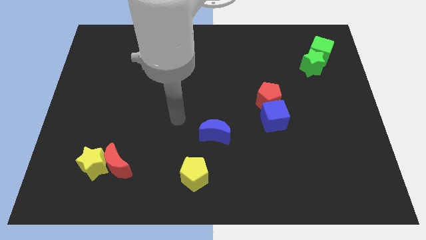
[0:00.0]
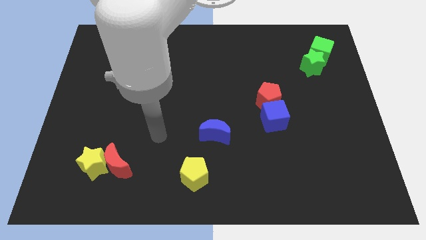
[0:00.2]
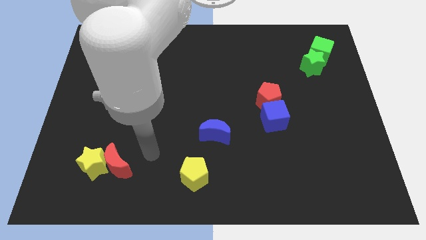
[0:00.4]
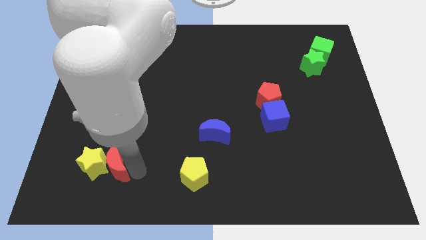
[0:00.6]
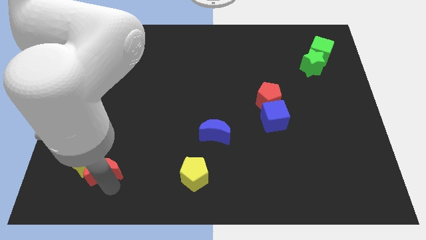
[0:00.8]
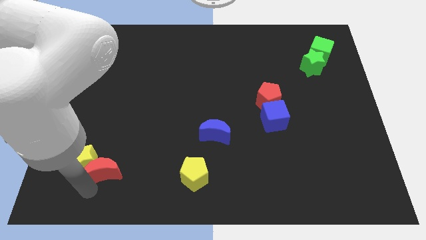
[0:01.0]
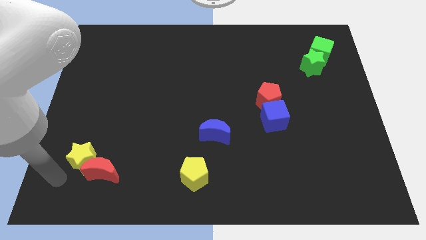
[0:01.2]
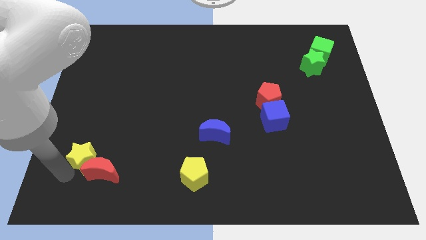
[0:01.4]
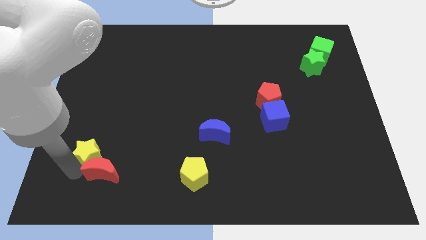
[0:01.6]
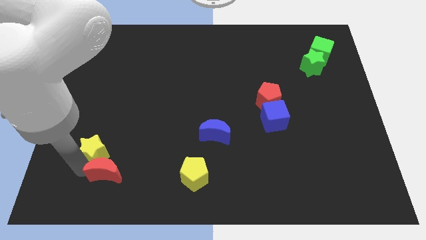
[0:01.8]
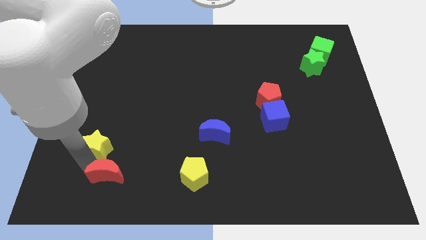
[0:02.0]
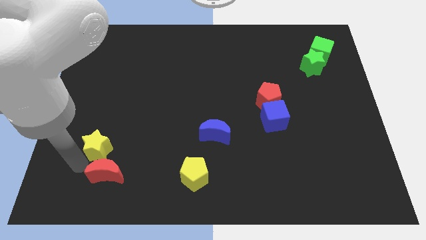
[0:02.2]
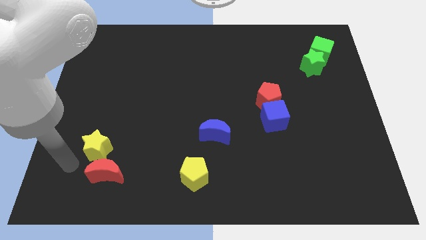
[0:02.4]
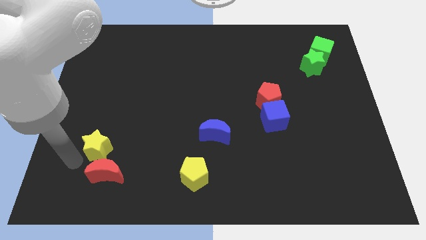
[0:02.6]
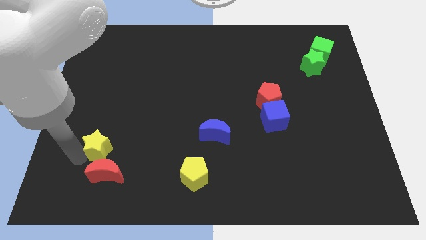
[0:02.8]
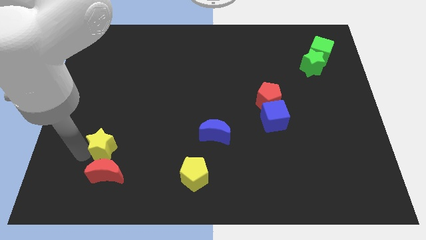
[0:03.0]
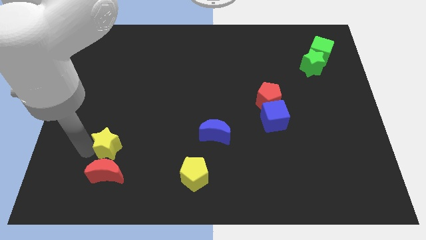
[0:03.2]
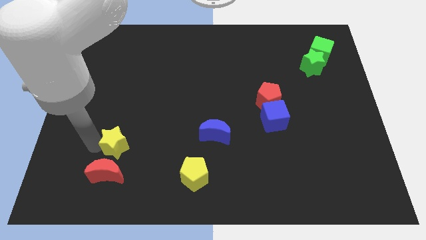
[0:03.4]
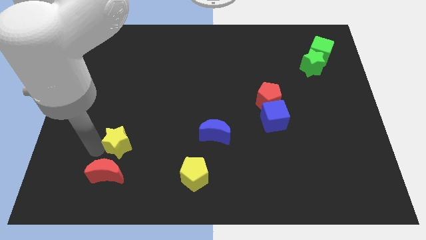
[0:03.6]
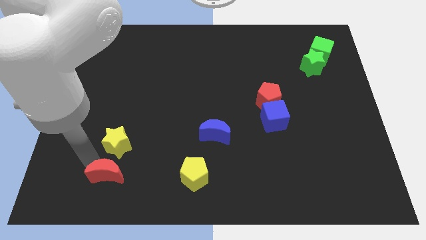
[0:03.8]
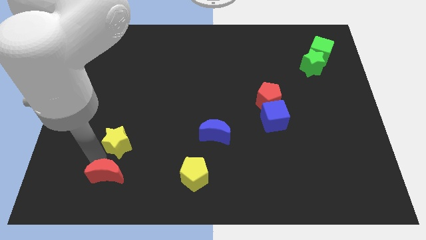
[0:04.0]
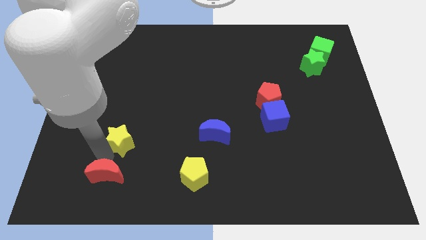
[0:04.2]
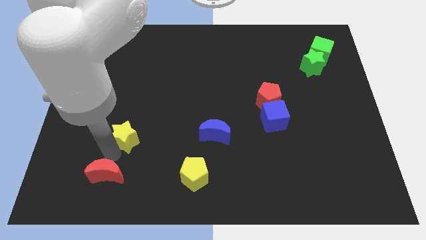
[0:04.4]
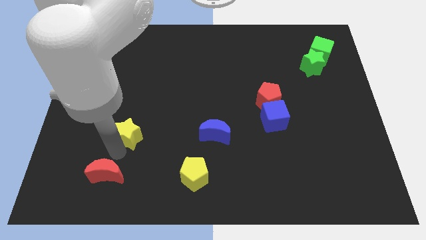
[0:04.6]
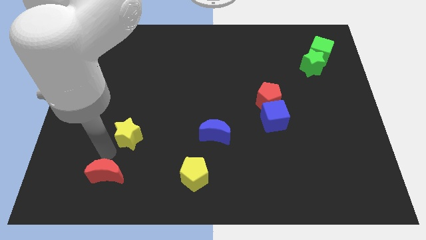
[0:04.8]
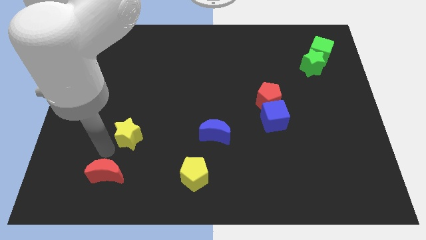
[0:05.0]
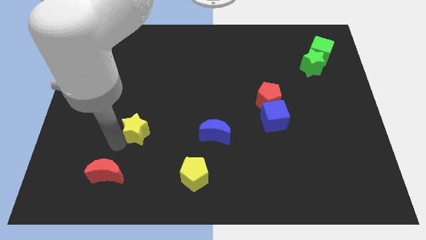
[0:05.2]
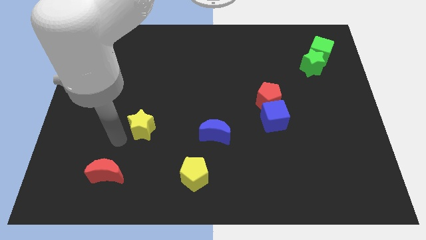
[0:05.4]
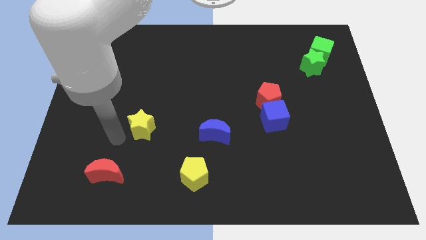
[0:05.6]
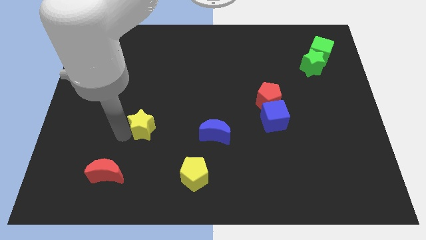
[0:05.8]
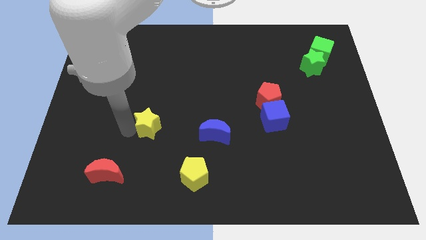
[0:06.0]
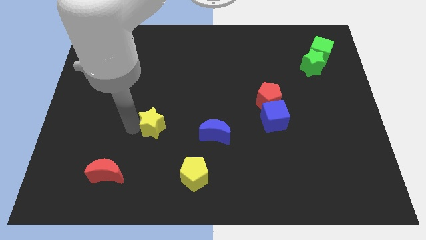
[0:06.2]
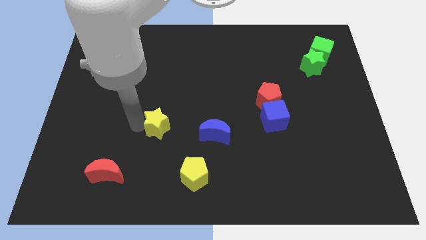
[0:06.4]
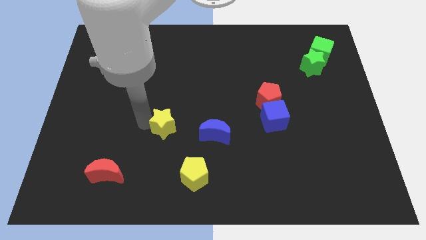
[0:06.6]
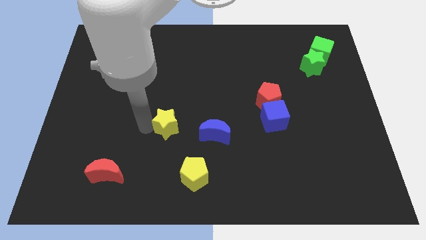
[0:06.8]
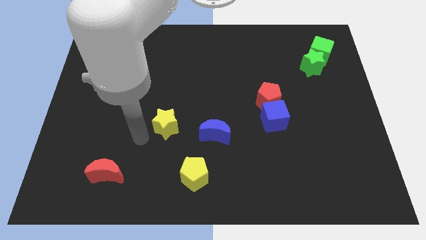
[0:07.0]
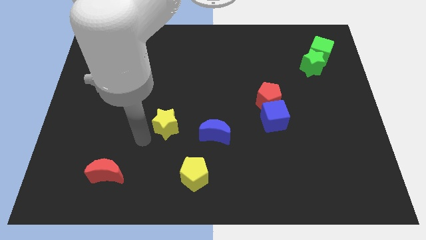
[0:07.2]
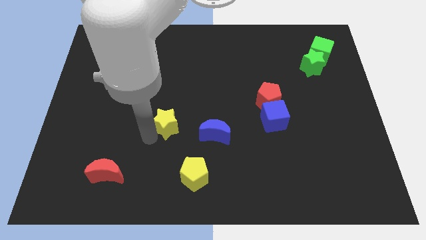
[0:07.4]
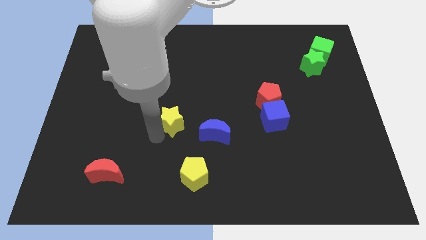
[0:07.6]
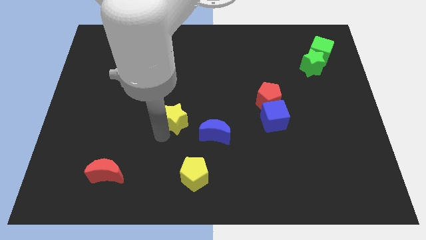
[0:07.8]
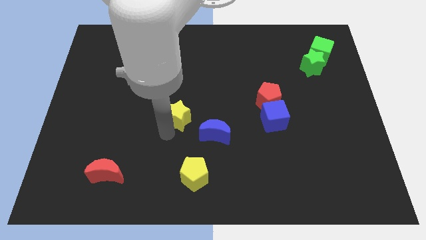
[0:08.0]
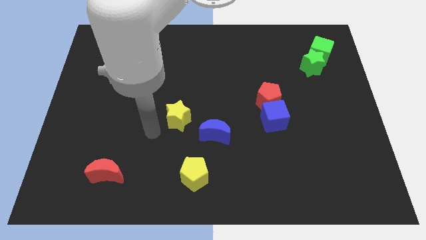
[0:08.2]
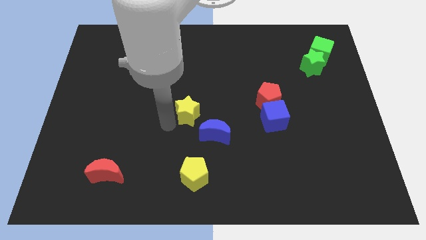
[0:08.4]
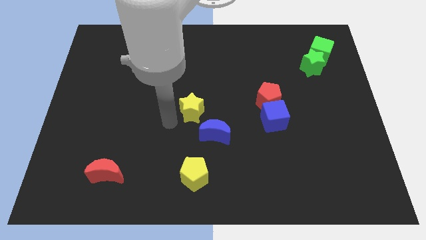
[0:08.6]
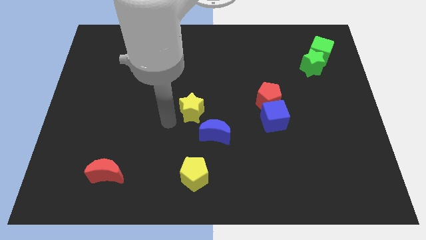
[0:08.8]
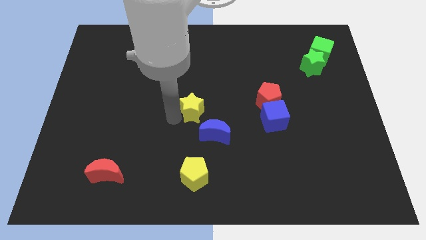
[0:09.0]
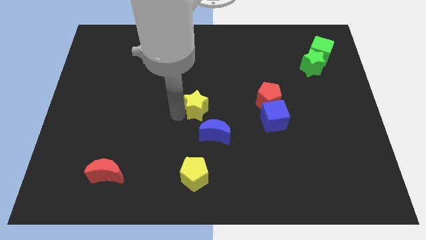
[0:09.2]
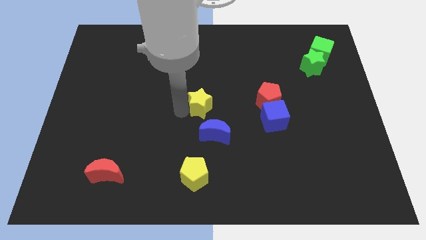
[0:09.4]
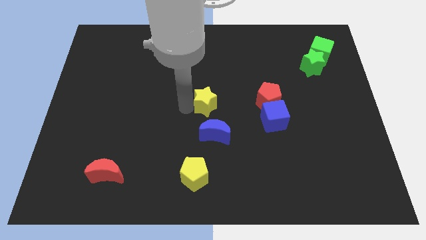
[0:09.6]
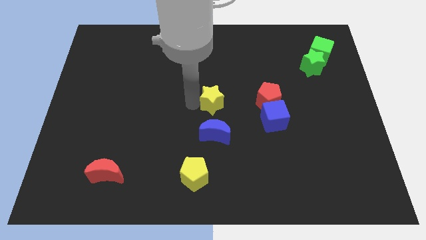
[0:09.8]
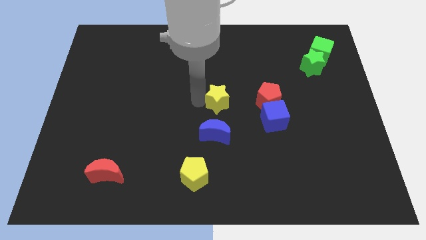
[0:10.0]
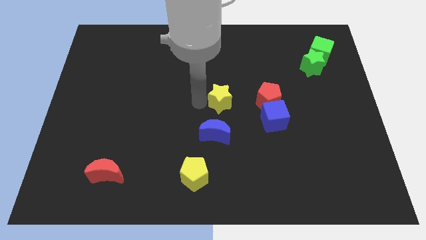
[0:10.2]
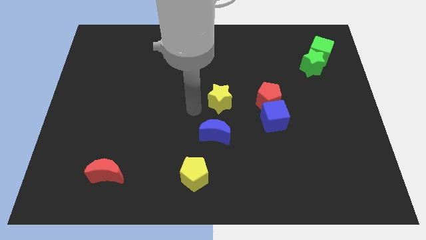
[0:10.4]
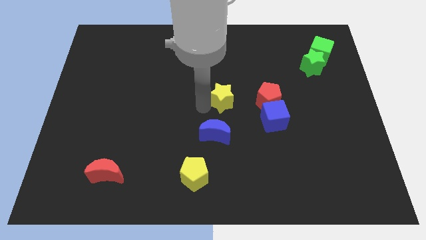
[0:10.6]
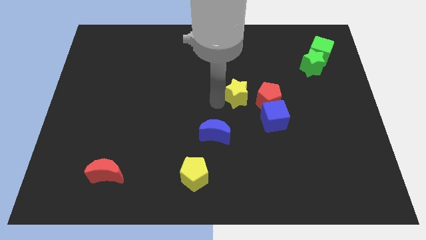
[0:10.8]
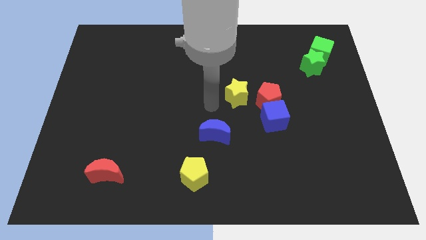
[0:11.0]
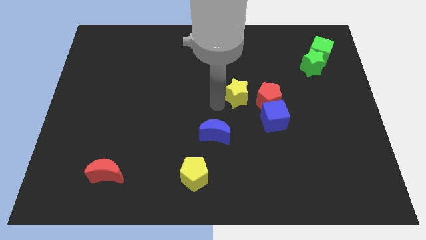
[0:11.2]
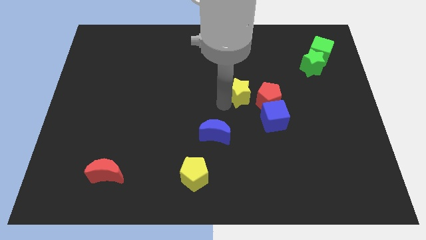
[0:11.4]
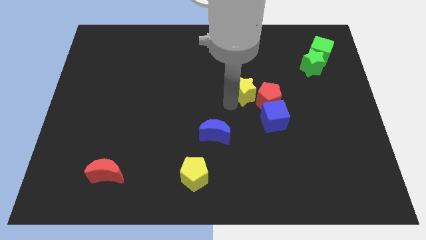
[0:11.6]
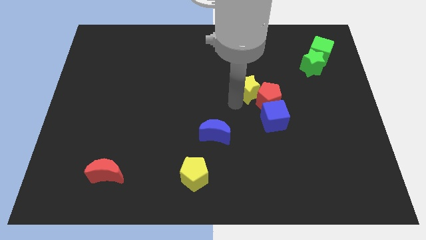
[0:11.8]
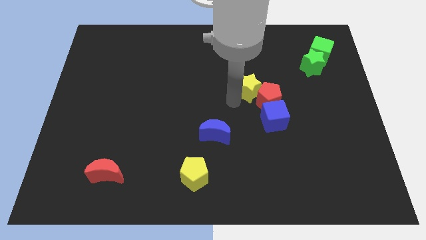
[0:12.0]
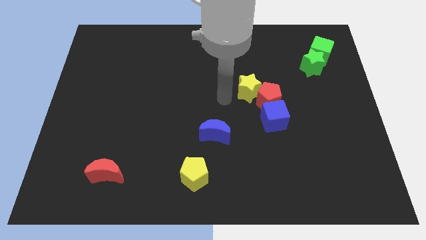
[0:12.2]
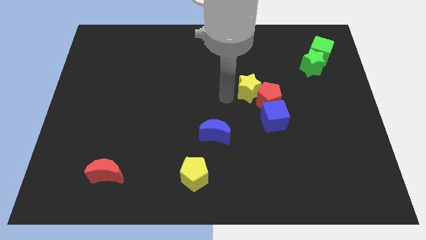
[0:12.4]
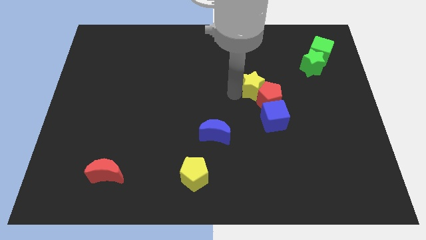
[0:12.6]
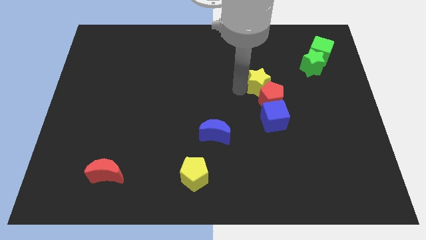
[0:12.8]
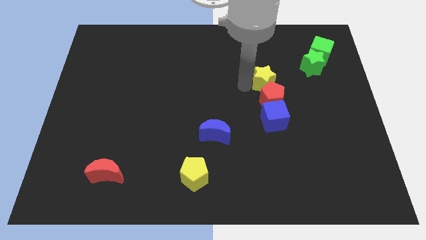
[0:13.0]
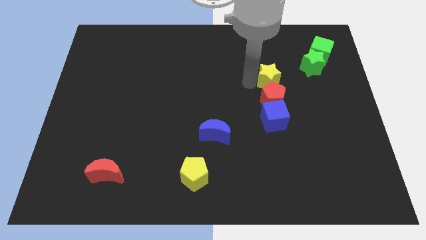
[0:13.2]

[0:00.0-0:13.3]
slide the yellow star to the top right of the red pentagon
